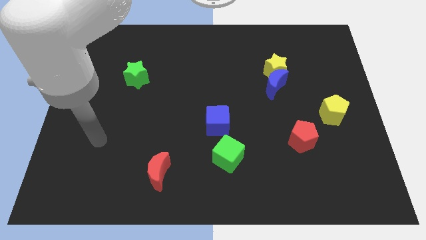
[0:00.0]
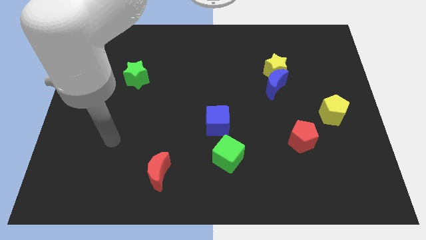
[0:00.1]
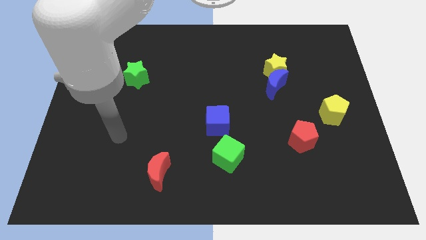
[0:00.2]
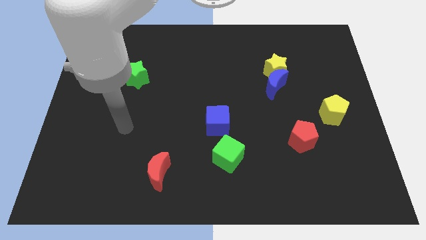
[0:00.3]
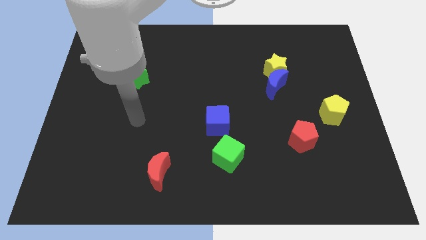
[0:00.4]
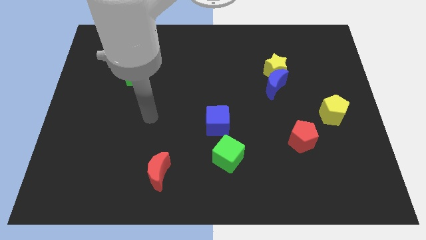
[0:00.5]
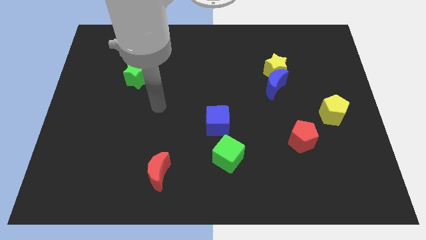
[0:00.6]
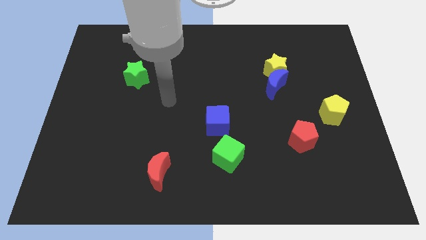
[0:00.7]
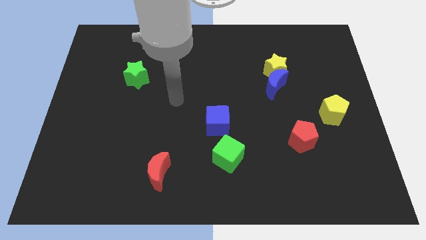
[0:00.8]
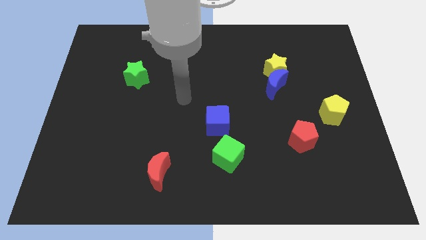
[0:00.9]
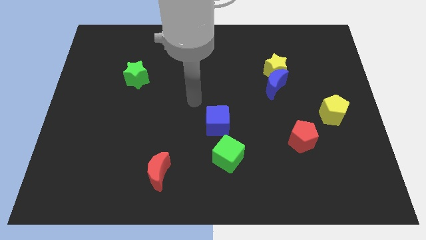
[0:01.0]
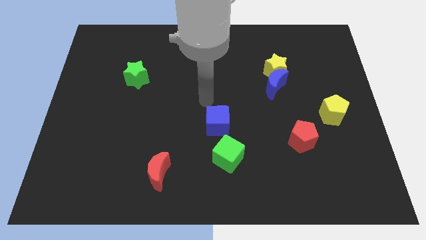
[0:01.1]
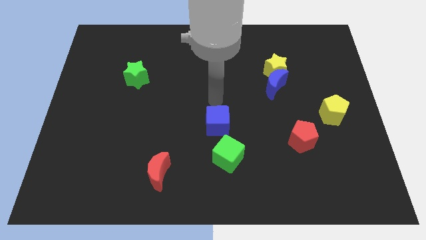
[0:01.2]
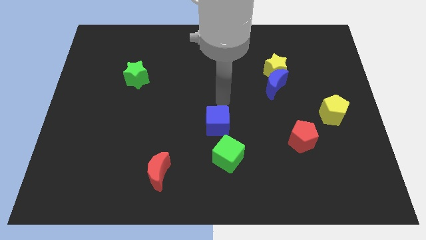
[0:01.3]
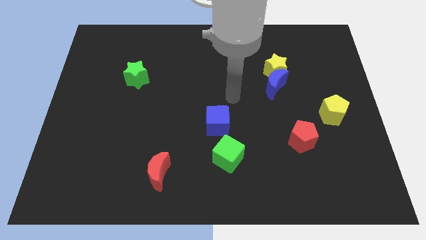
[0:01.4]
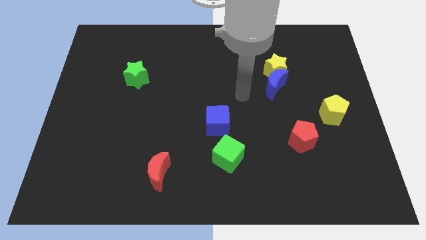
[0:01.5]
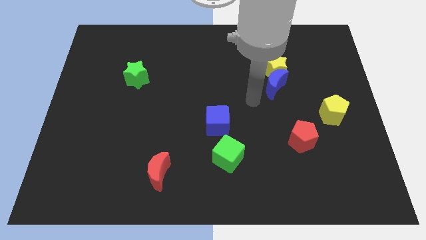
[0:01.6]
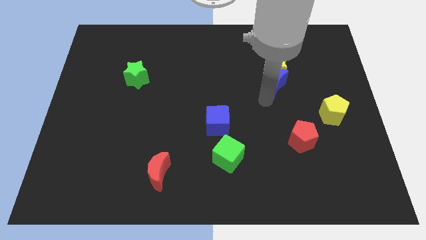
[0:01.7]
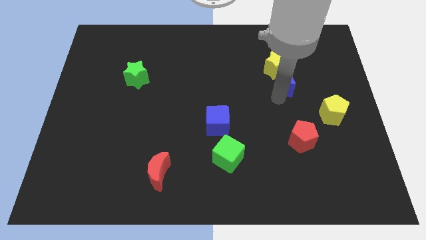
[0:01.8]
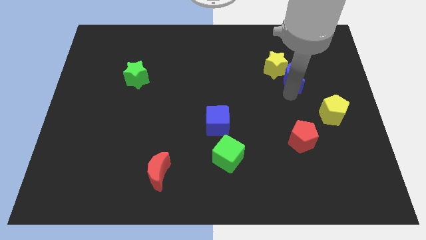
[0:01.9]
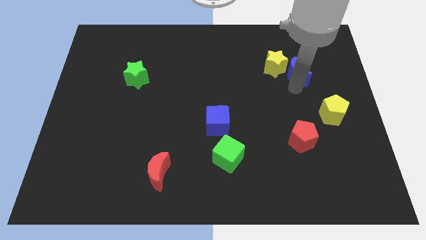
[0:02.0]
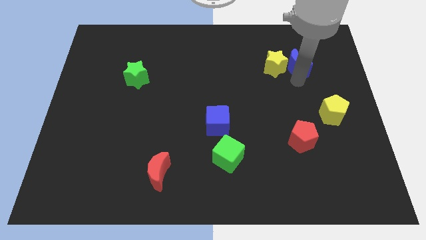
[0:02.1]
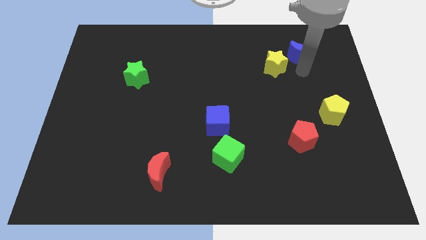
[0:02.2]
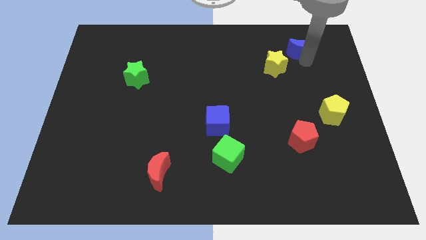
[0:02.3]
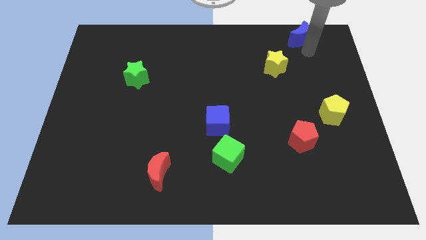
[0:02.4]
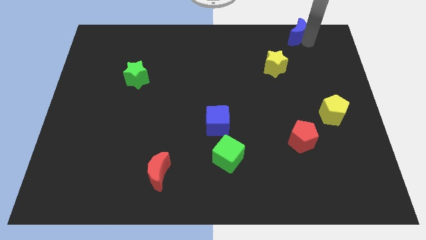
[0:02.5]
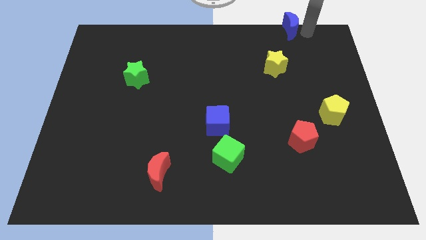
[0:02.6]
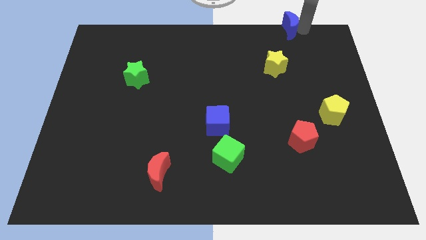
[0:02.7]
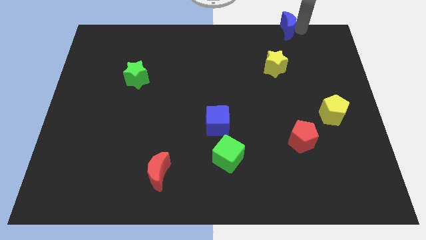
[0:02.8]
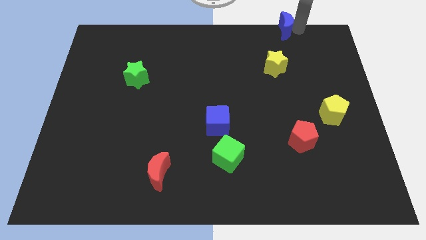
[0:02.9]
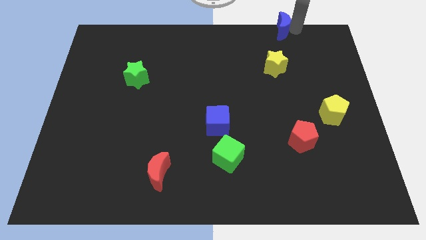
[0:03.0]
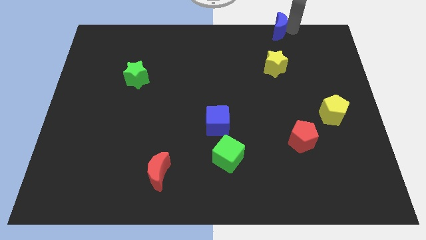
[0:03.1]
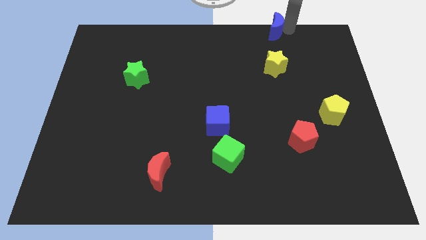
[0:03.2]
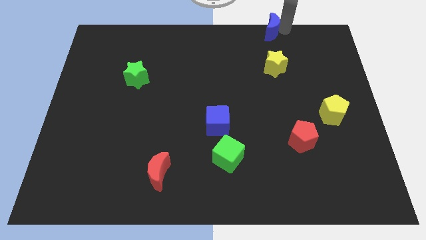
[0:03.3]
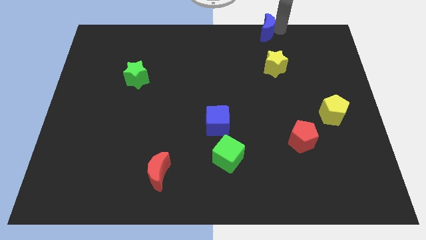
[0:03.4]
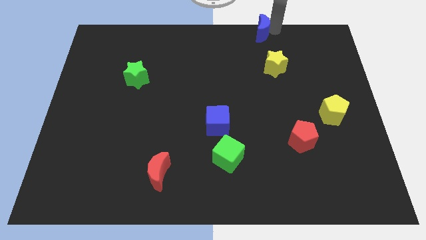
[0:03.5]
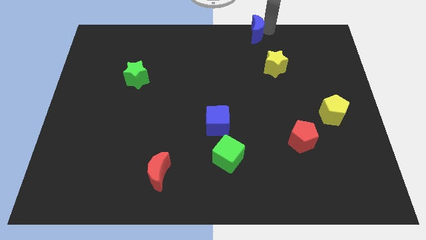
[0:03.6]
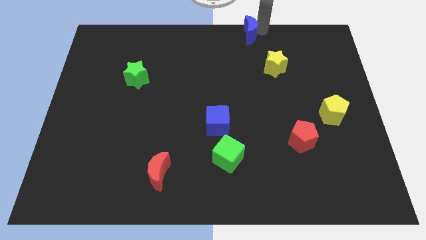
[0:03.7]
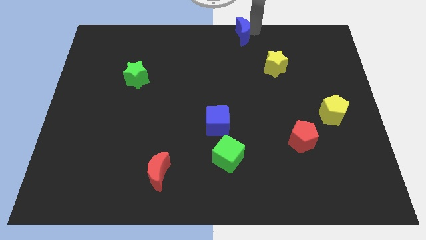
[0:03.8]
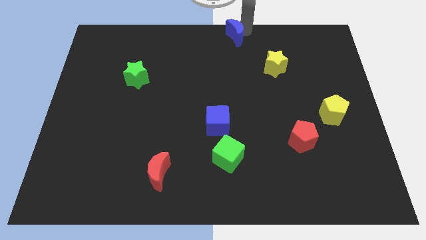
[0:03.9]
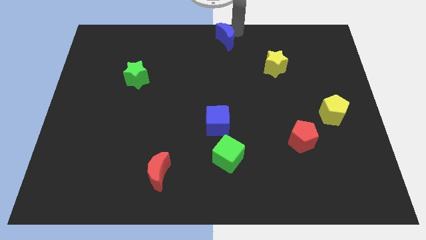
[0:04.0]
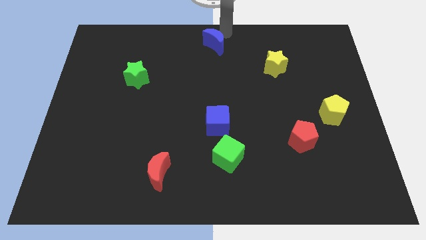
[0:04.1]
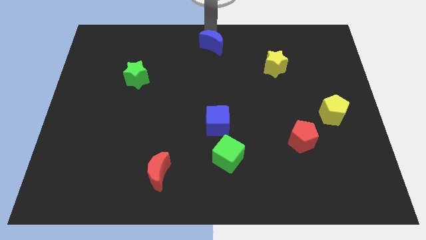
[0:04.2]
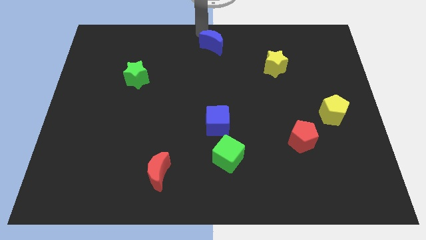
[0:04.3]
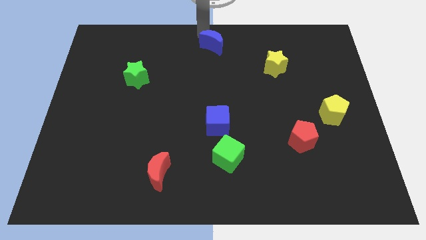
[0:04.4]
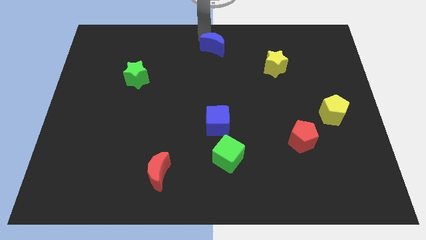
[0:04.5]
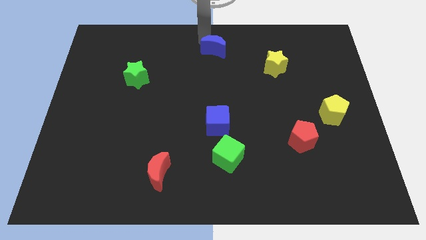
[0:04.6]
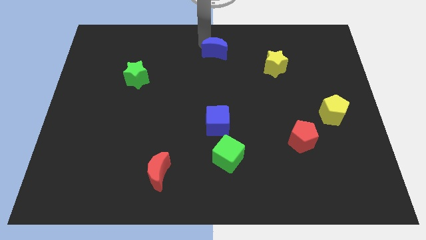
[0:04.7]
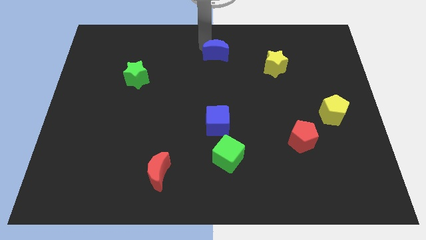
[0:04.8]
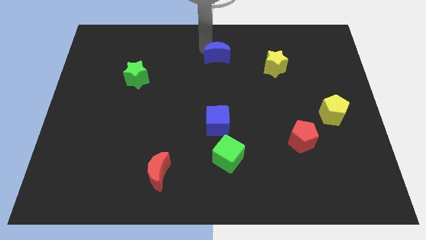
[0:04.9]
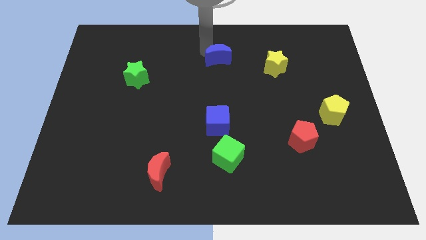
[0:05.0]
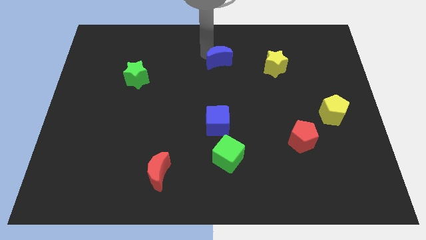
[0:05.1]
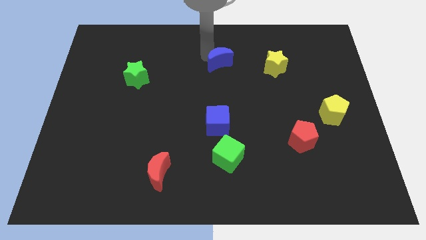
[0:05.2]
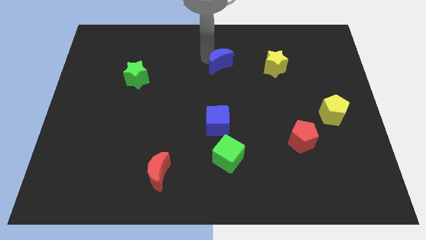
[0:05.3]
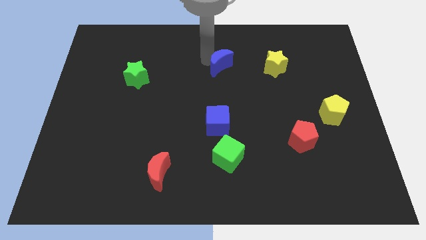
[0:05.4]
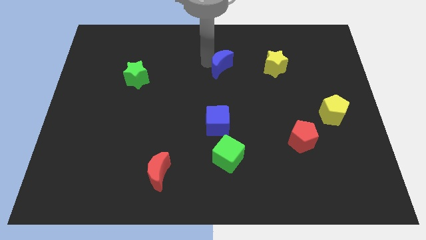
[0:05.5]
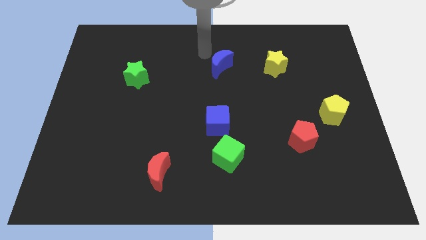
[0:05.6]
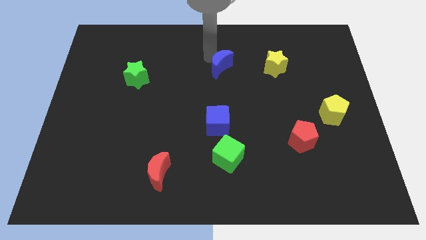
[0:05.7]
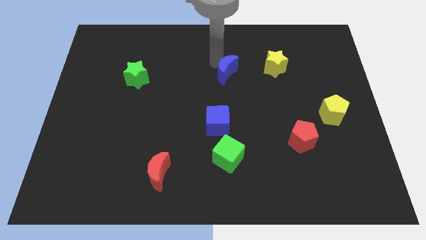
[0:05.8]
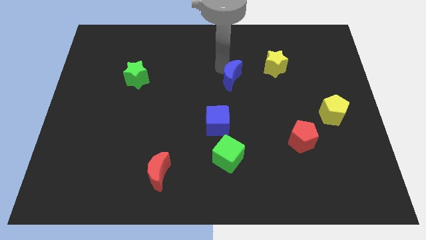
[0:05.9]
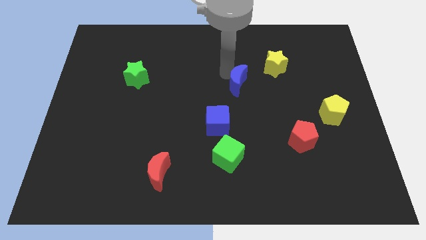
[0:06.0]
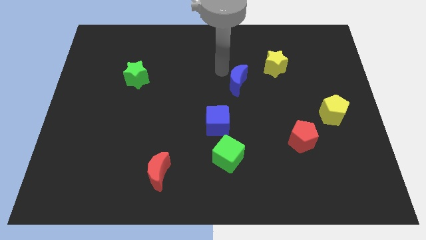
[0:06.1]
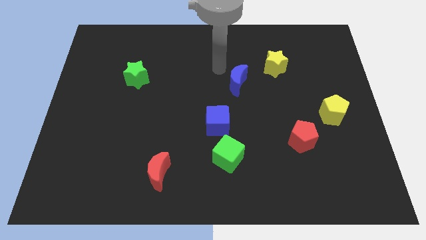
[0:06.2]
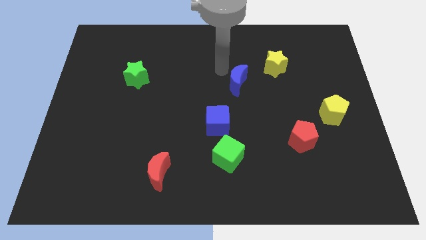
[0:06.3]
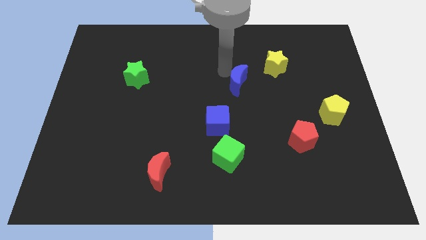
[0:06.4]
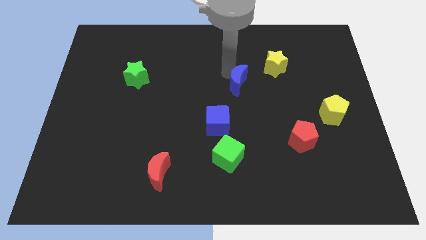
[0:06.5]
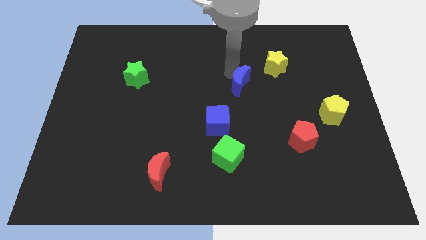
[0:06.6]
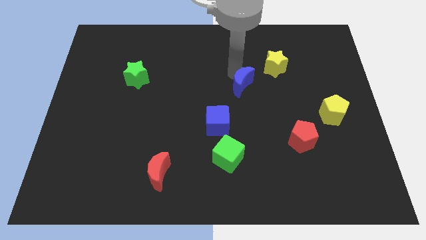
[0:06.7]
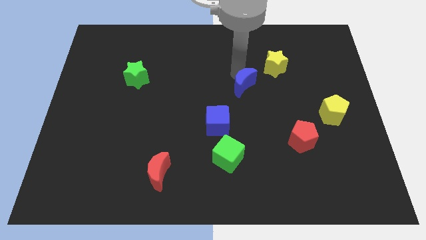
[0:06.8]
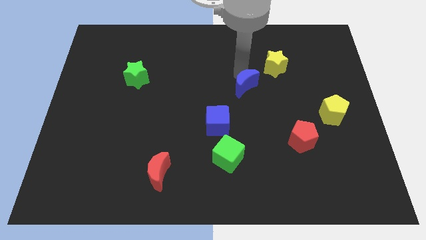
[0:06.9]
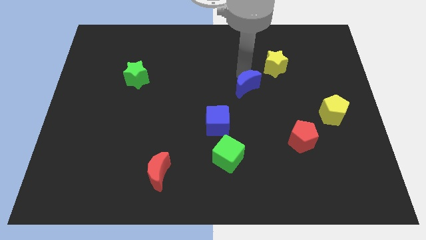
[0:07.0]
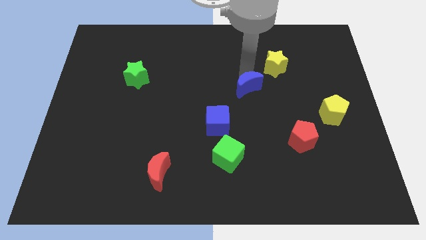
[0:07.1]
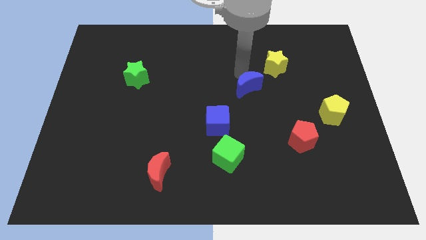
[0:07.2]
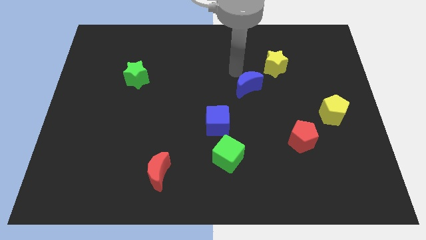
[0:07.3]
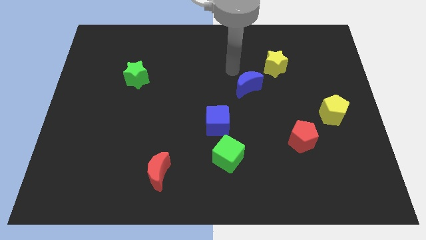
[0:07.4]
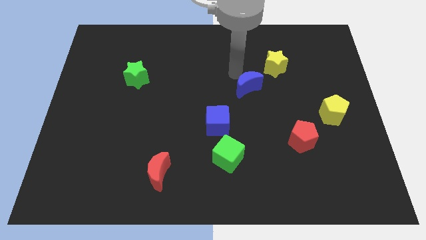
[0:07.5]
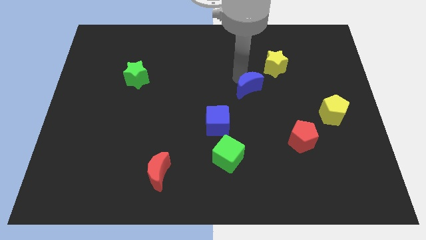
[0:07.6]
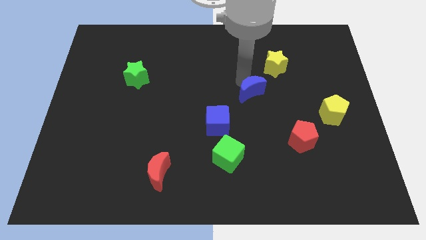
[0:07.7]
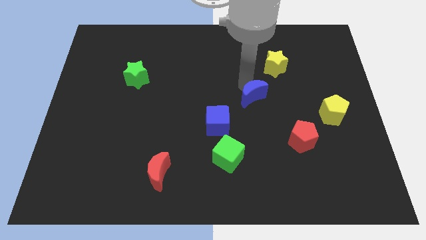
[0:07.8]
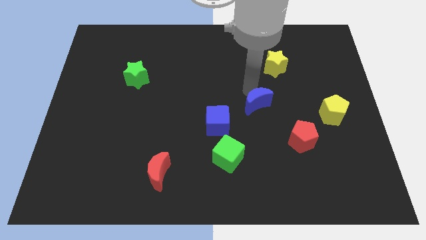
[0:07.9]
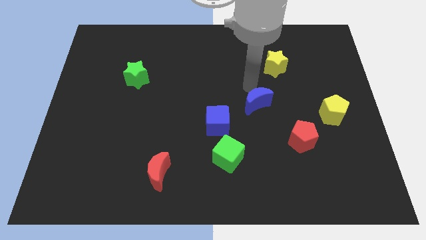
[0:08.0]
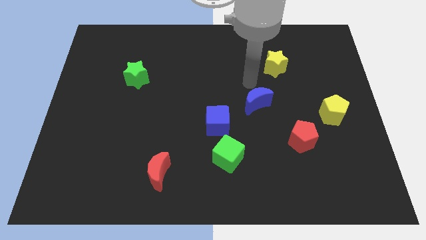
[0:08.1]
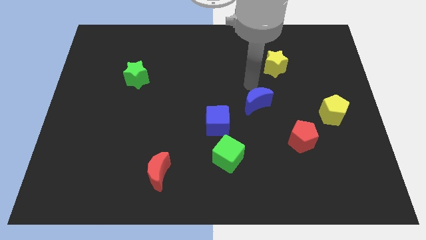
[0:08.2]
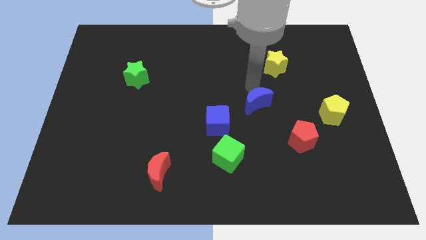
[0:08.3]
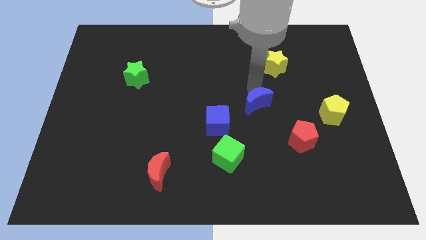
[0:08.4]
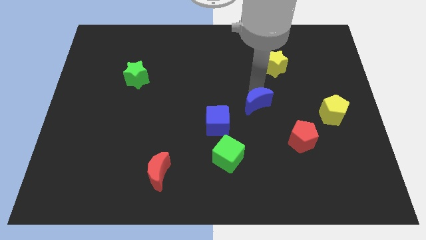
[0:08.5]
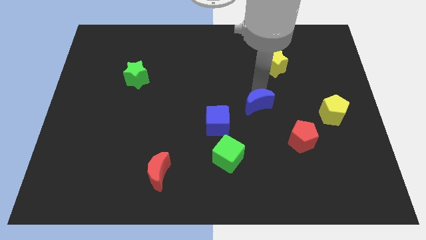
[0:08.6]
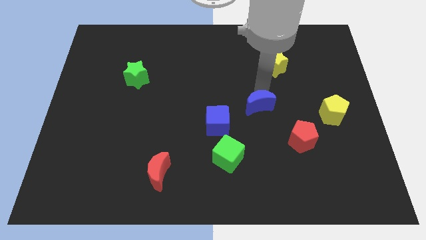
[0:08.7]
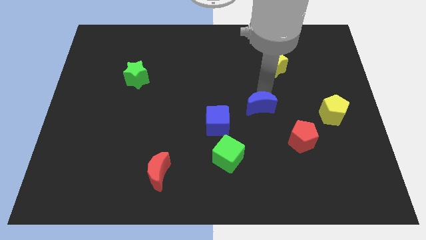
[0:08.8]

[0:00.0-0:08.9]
put the blue moon to the right of the blue cube
